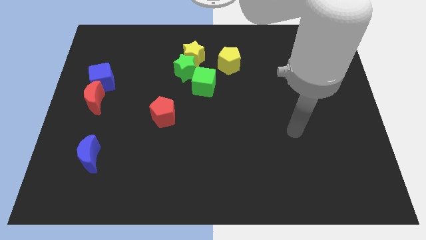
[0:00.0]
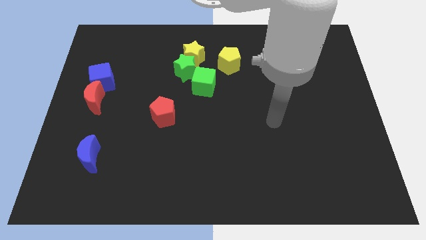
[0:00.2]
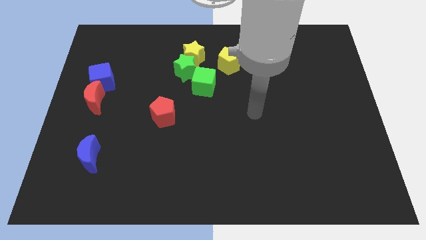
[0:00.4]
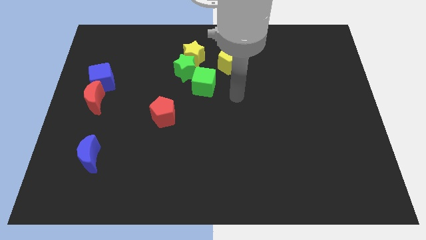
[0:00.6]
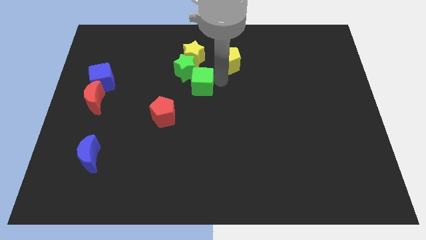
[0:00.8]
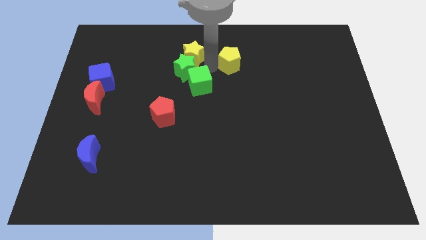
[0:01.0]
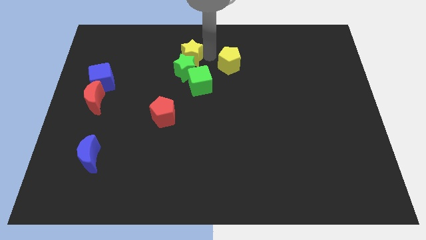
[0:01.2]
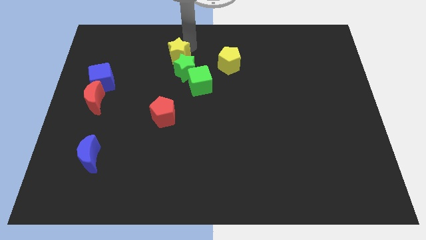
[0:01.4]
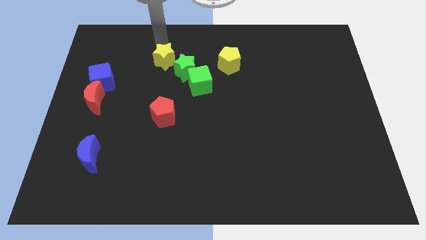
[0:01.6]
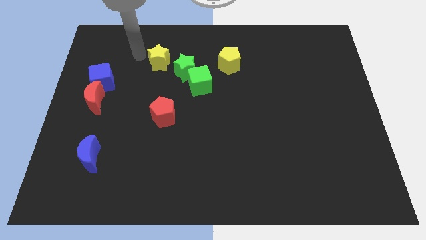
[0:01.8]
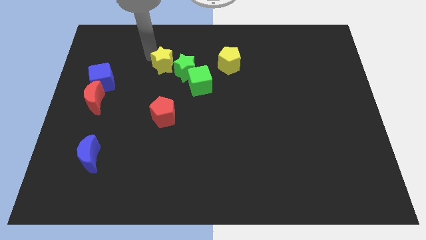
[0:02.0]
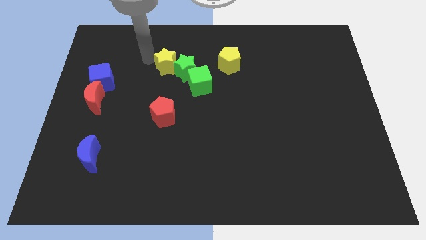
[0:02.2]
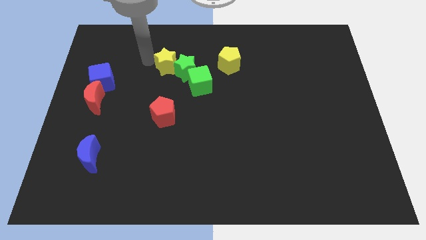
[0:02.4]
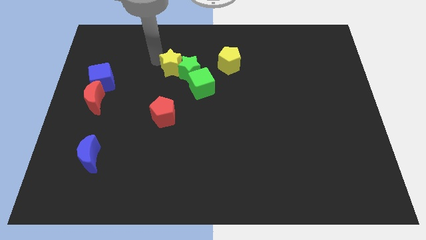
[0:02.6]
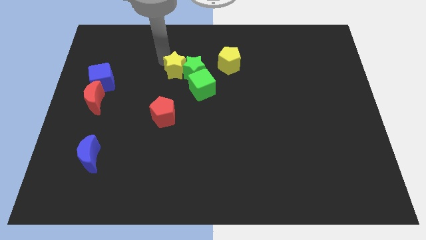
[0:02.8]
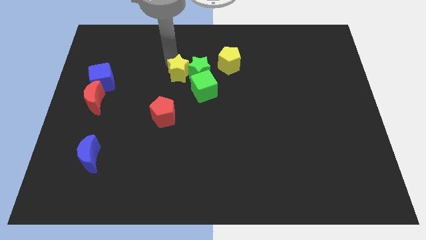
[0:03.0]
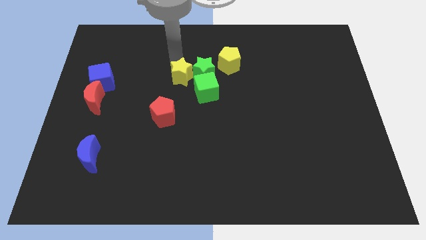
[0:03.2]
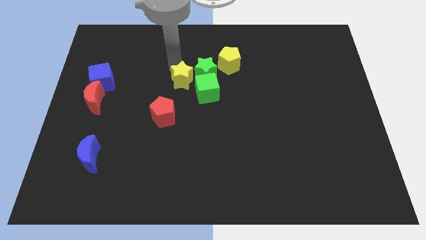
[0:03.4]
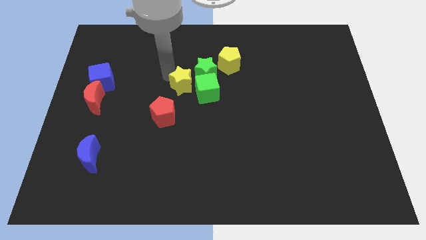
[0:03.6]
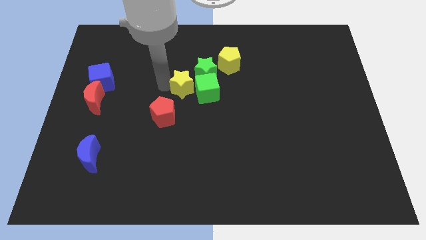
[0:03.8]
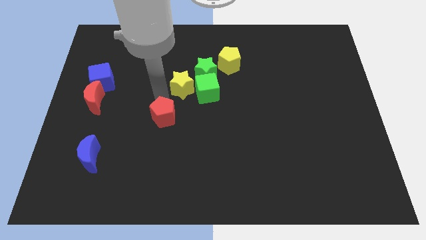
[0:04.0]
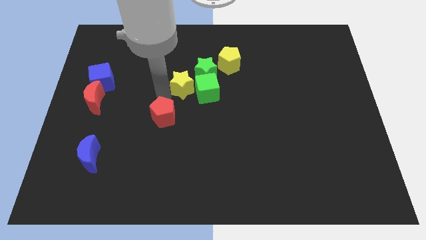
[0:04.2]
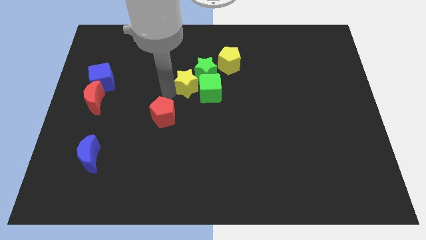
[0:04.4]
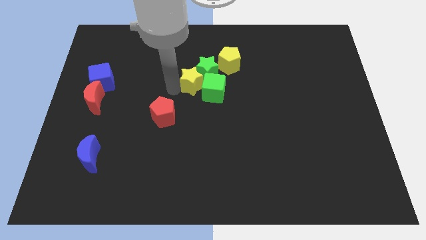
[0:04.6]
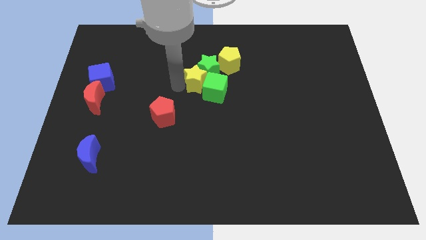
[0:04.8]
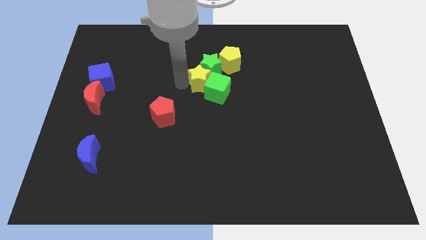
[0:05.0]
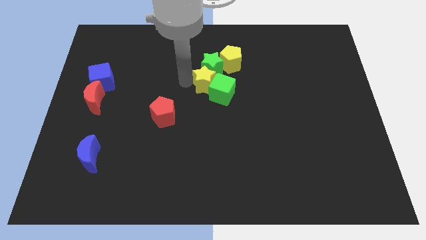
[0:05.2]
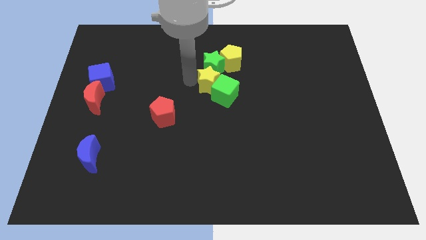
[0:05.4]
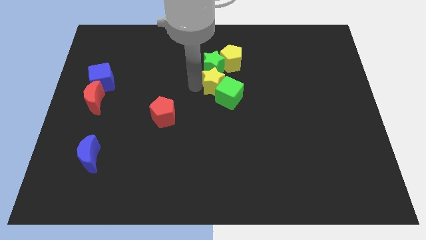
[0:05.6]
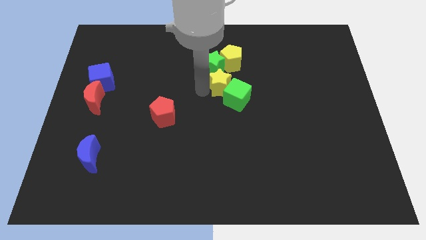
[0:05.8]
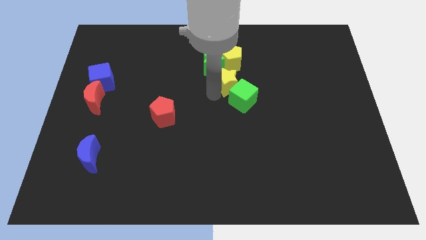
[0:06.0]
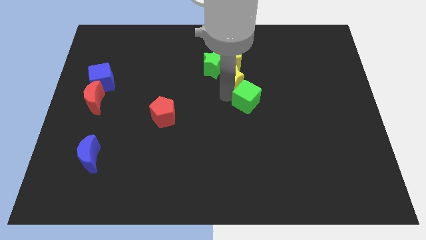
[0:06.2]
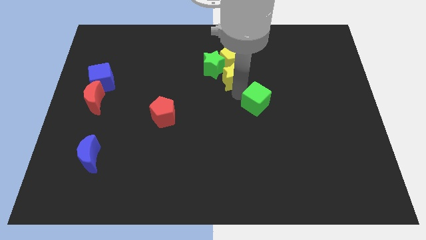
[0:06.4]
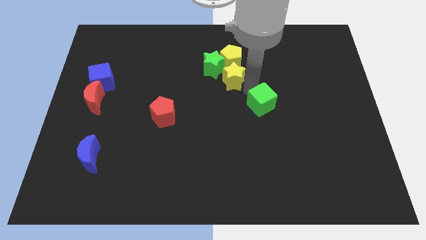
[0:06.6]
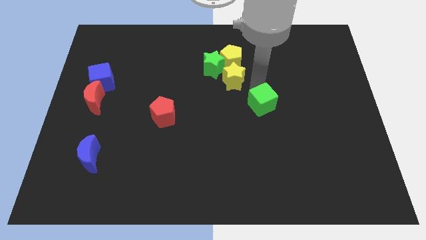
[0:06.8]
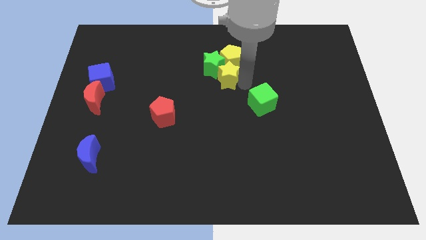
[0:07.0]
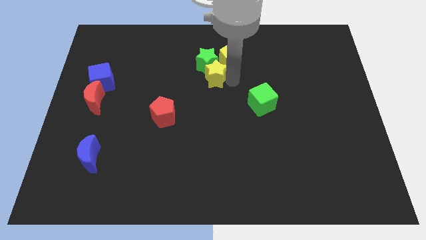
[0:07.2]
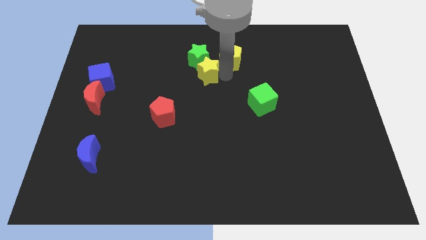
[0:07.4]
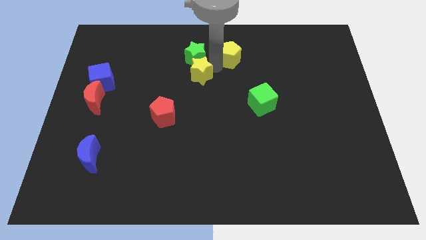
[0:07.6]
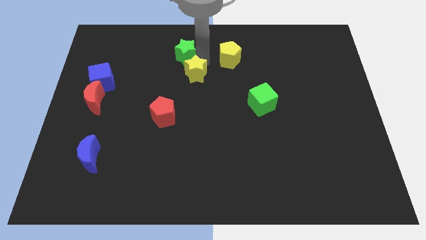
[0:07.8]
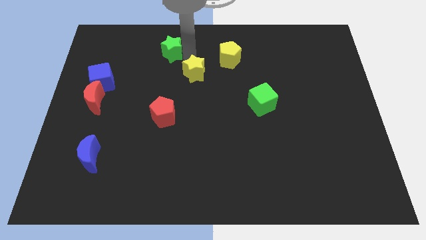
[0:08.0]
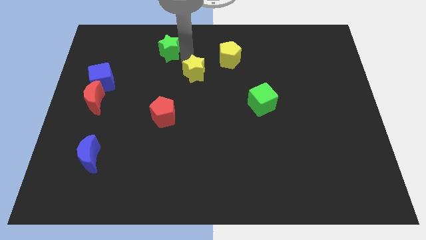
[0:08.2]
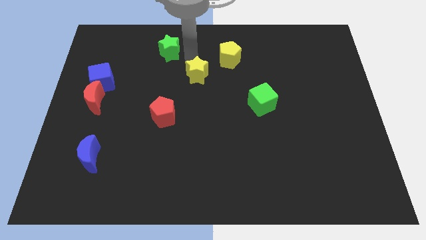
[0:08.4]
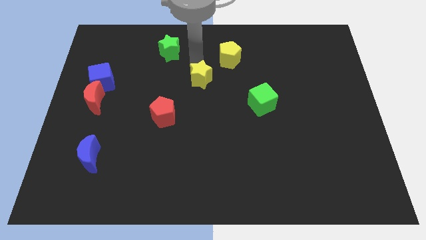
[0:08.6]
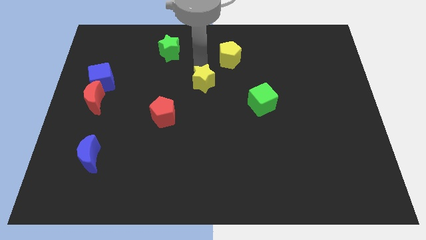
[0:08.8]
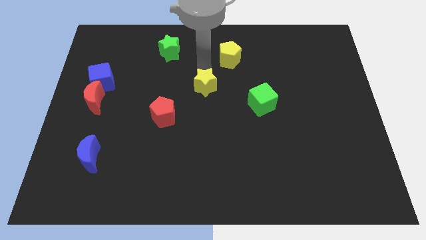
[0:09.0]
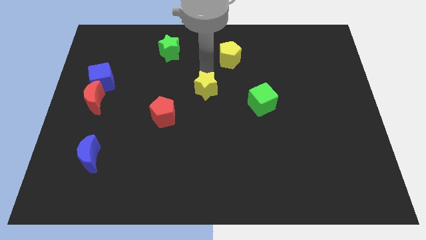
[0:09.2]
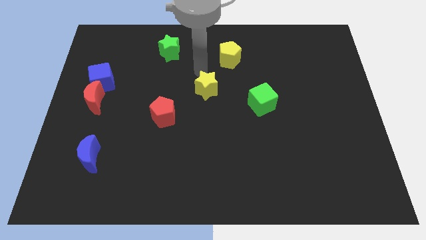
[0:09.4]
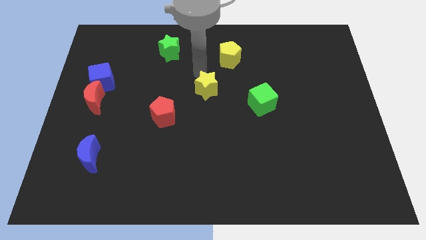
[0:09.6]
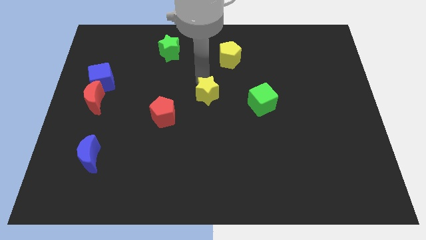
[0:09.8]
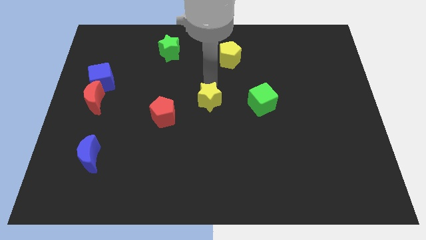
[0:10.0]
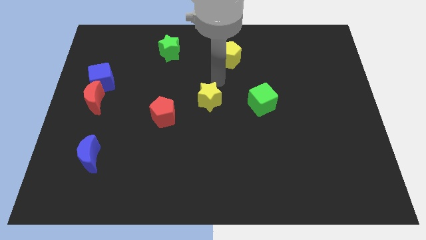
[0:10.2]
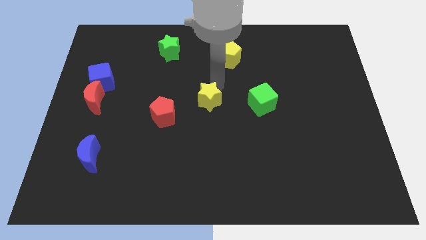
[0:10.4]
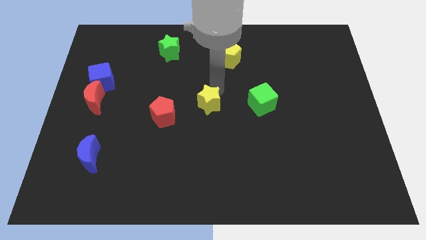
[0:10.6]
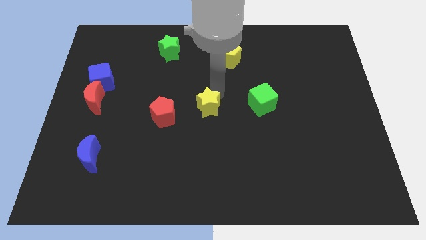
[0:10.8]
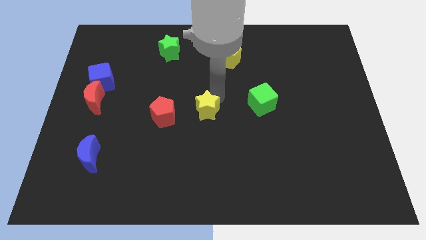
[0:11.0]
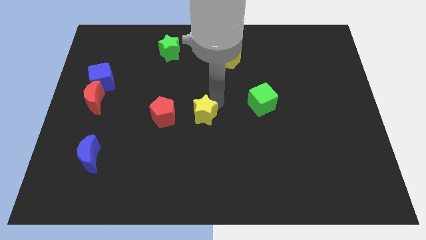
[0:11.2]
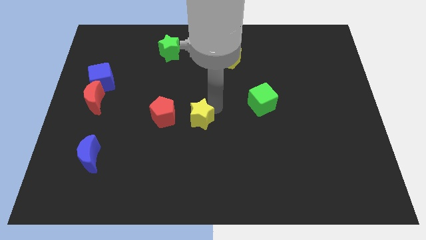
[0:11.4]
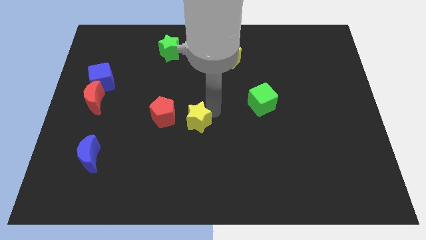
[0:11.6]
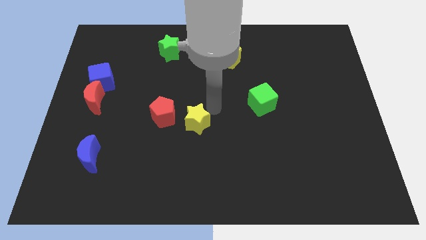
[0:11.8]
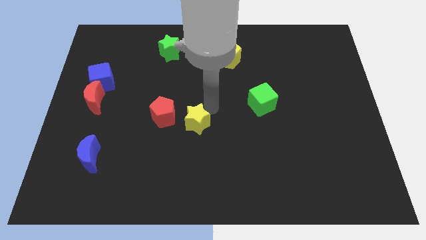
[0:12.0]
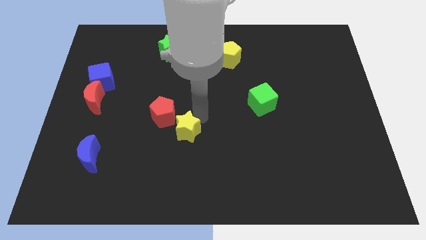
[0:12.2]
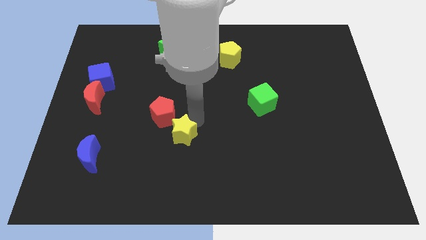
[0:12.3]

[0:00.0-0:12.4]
put the yellow star to the bottom of the red pentagon

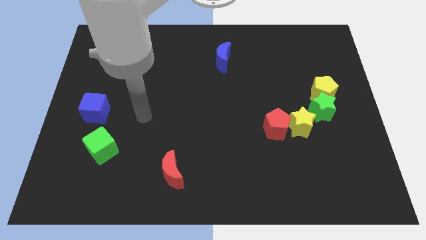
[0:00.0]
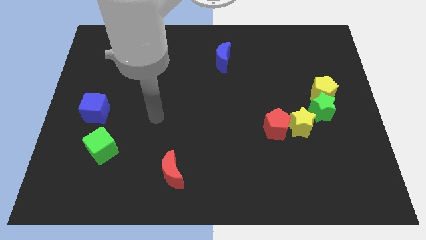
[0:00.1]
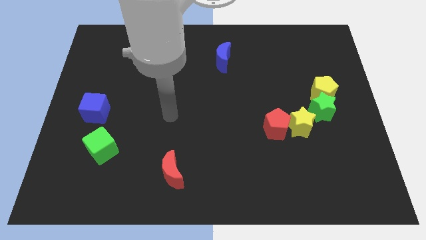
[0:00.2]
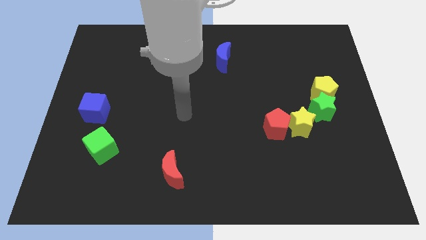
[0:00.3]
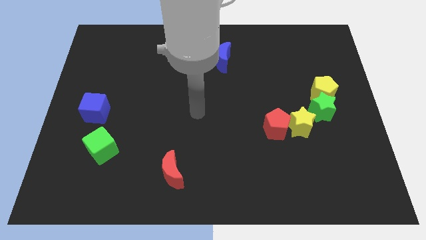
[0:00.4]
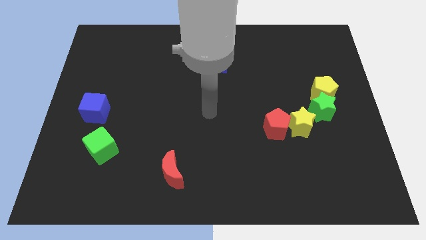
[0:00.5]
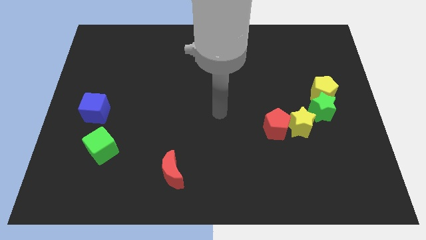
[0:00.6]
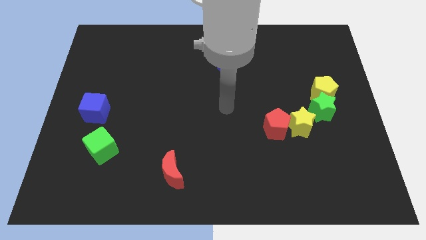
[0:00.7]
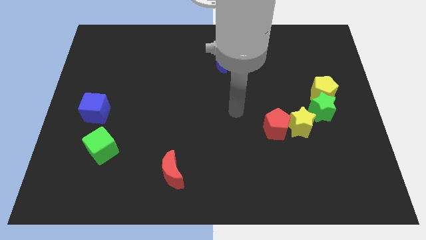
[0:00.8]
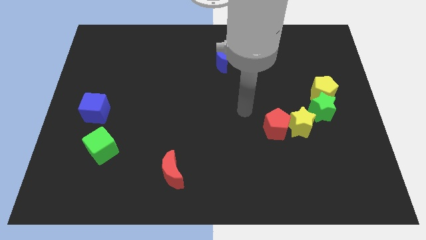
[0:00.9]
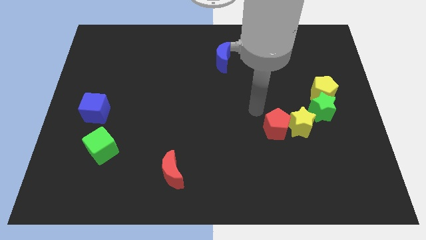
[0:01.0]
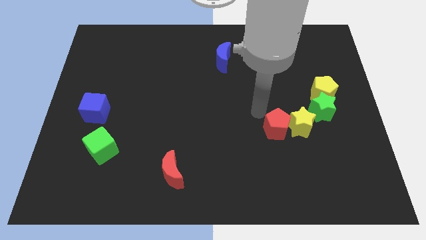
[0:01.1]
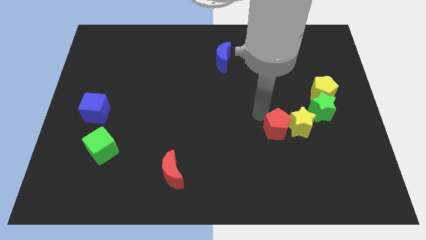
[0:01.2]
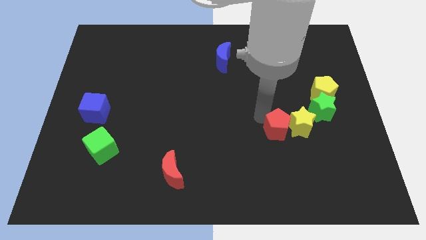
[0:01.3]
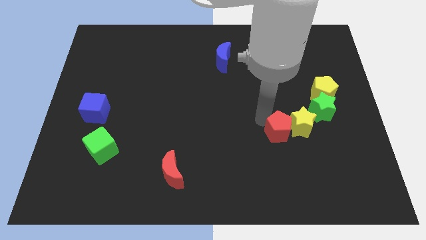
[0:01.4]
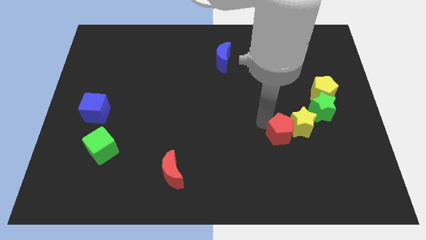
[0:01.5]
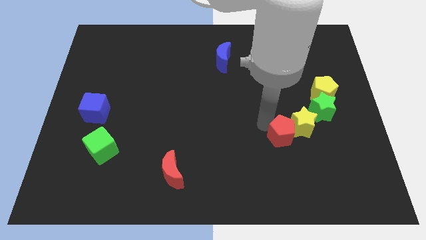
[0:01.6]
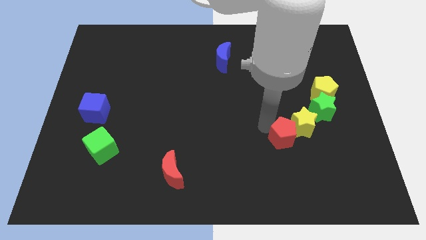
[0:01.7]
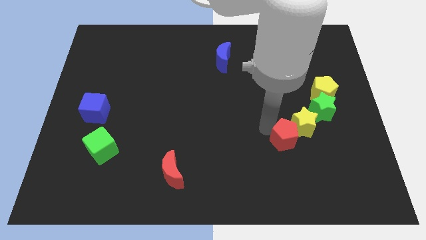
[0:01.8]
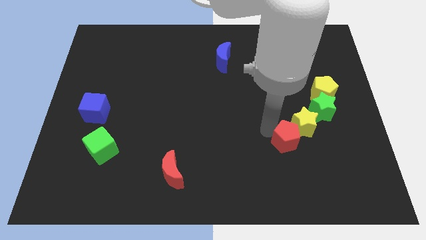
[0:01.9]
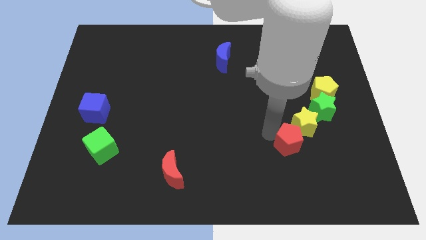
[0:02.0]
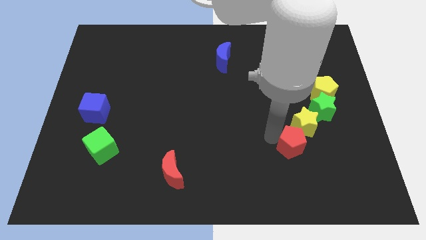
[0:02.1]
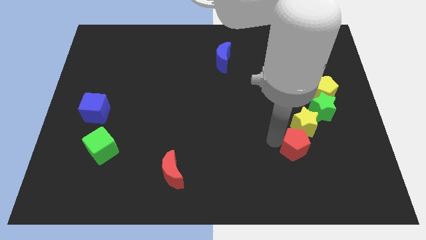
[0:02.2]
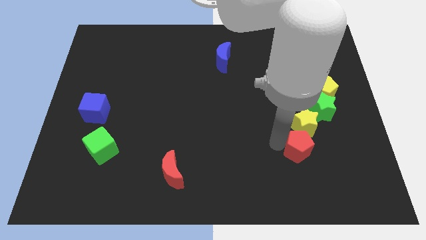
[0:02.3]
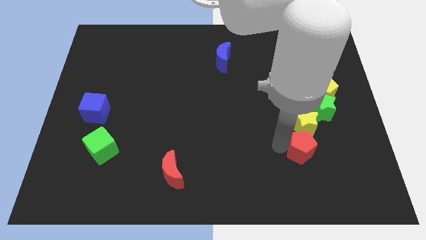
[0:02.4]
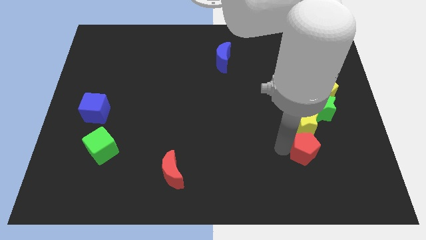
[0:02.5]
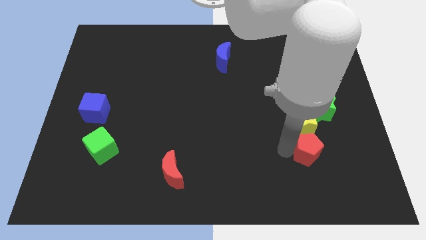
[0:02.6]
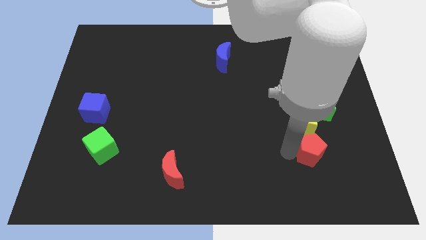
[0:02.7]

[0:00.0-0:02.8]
move the red pentagon to the bottom side of the green star
